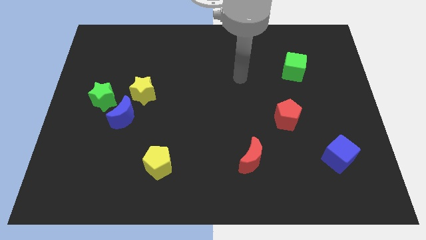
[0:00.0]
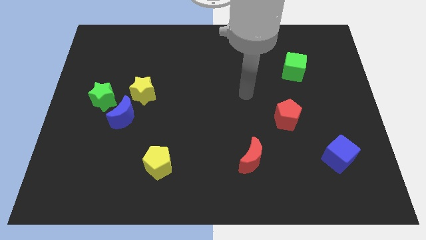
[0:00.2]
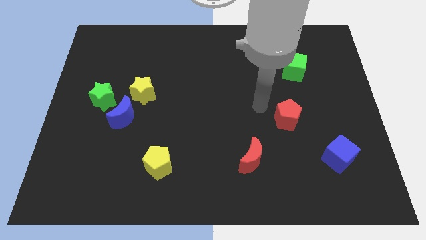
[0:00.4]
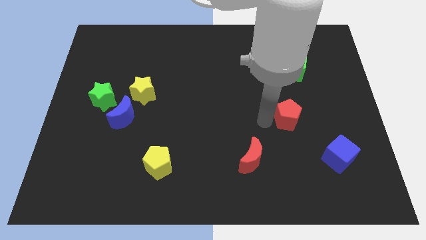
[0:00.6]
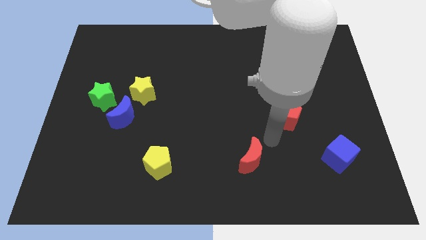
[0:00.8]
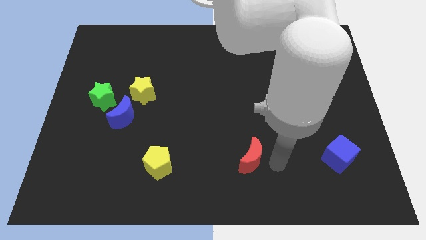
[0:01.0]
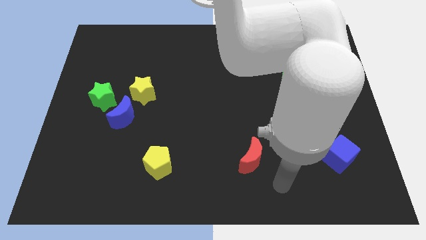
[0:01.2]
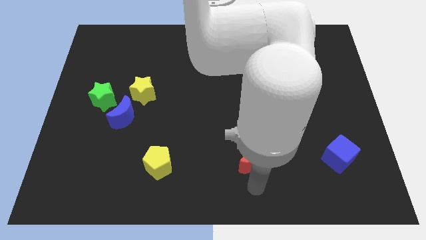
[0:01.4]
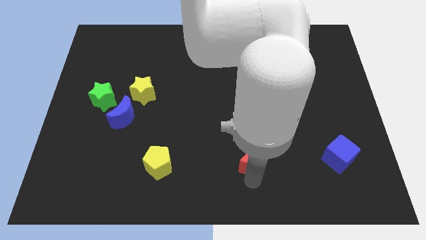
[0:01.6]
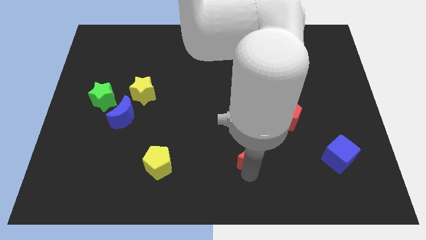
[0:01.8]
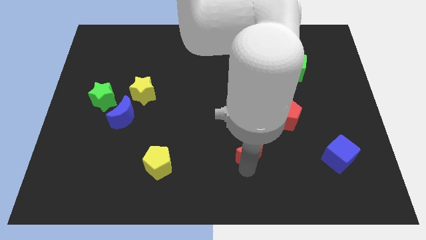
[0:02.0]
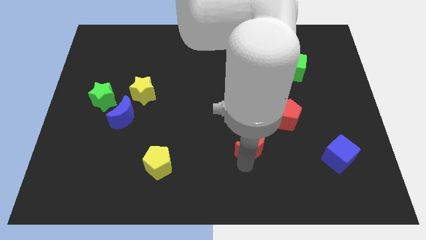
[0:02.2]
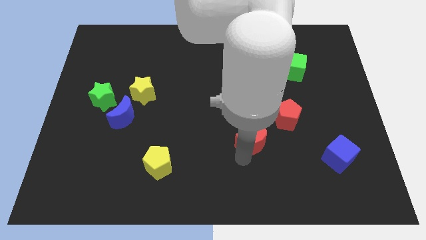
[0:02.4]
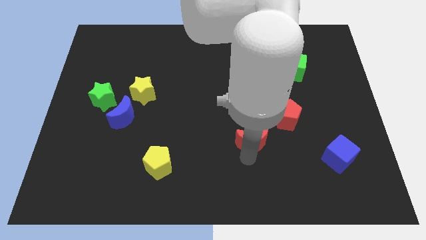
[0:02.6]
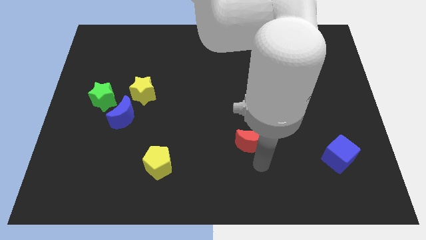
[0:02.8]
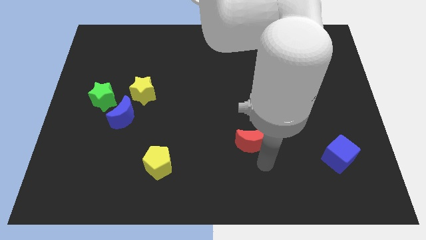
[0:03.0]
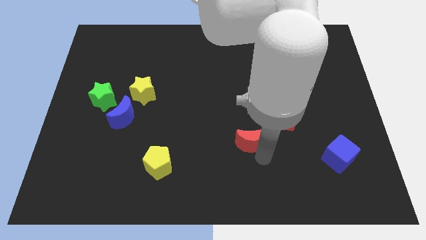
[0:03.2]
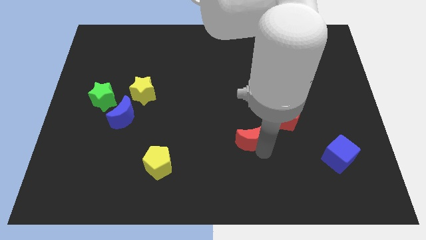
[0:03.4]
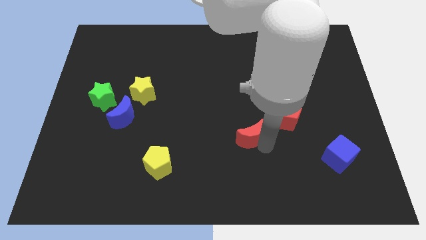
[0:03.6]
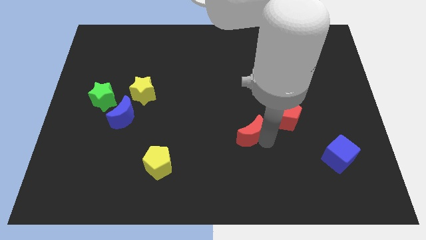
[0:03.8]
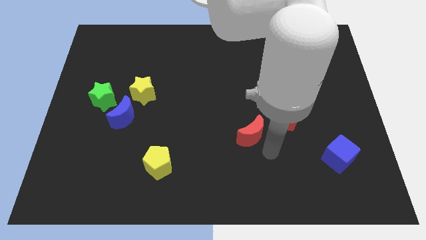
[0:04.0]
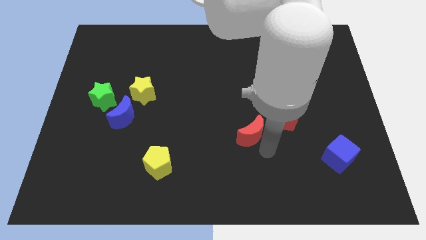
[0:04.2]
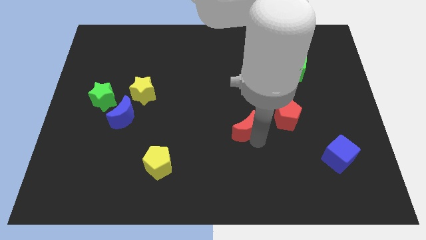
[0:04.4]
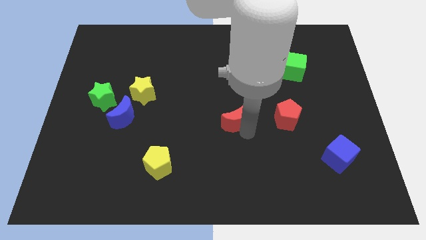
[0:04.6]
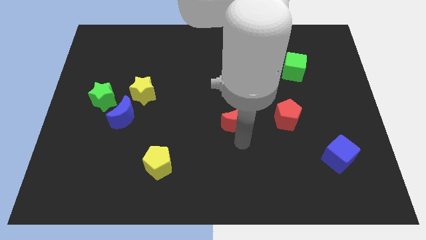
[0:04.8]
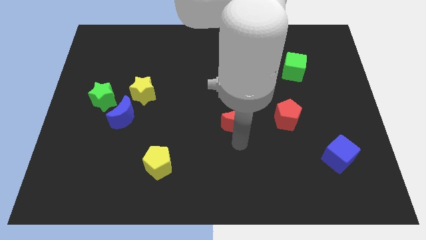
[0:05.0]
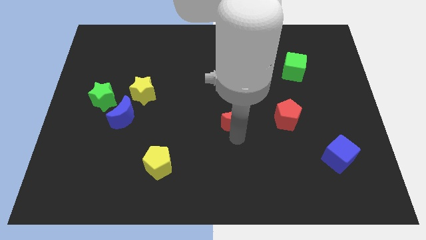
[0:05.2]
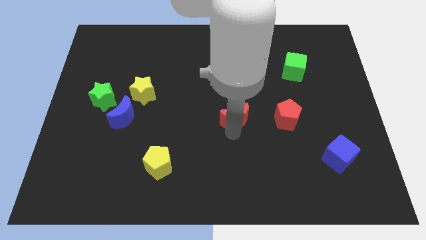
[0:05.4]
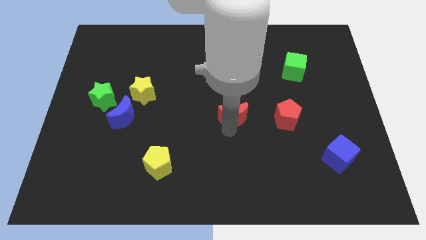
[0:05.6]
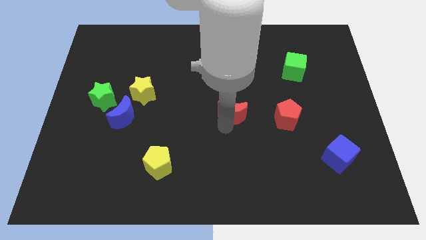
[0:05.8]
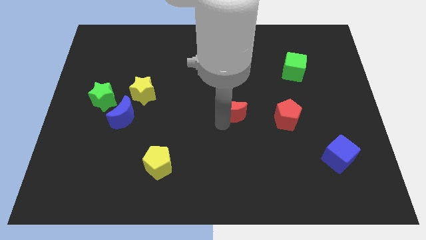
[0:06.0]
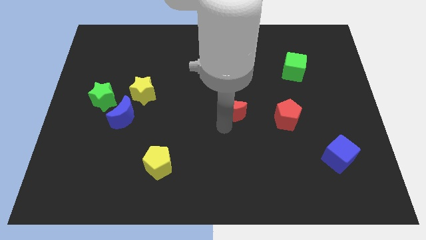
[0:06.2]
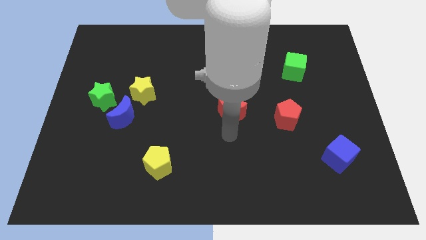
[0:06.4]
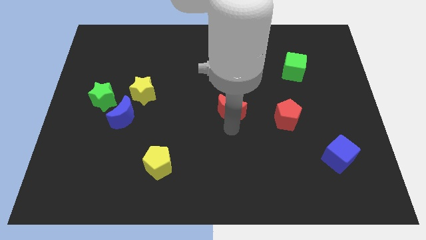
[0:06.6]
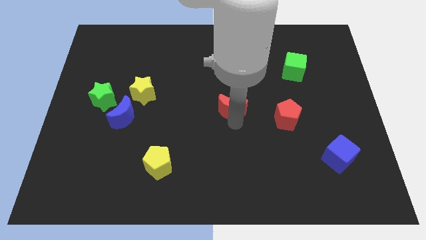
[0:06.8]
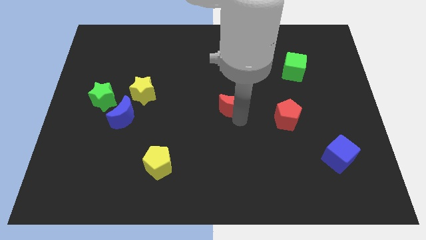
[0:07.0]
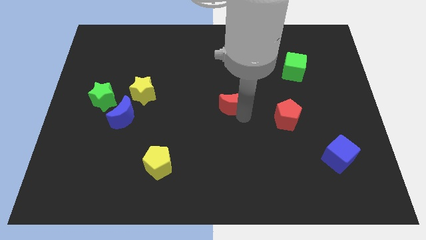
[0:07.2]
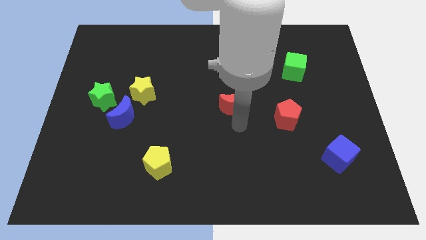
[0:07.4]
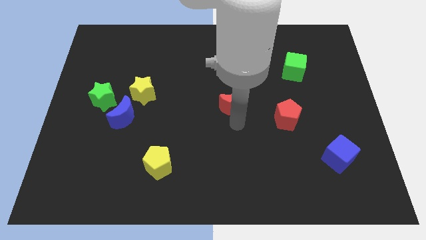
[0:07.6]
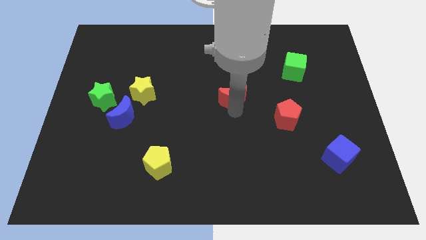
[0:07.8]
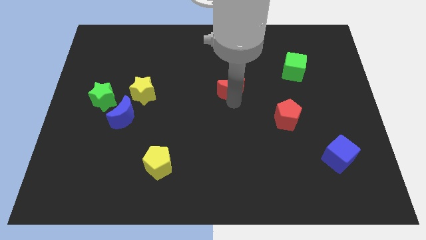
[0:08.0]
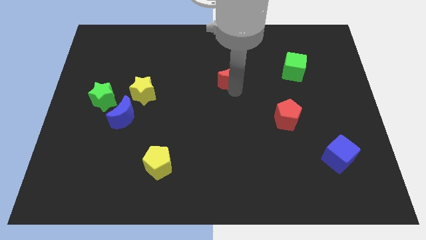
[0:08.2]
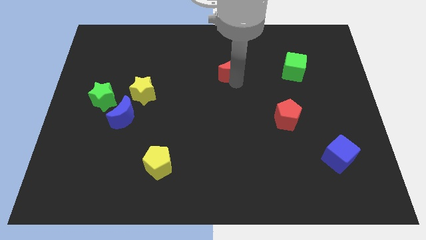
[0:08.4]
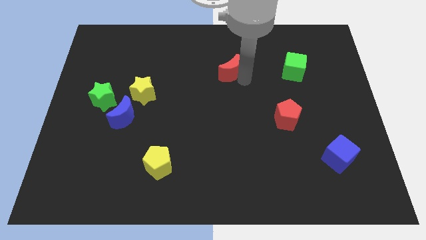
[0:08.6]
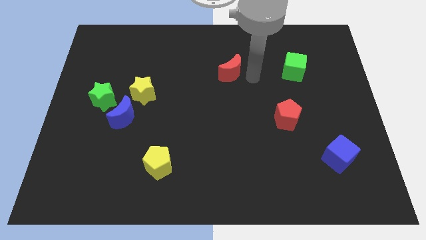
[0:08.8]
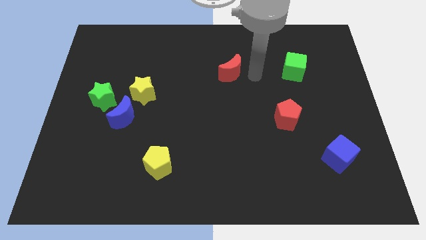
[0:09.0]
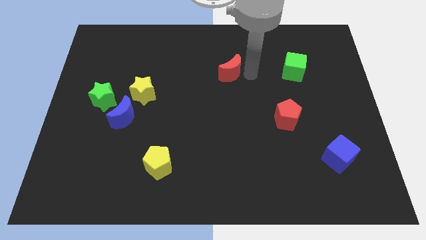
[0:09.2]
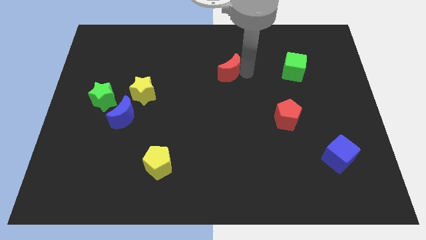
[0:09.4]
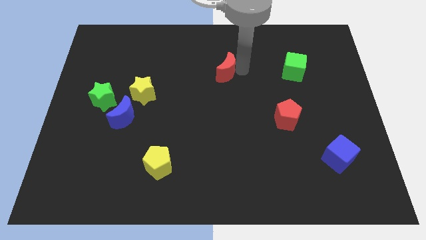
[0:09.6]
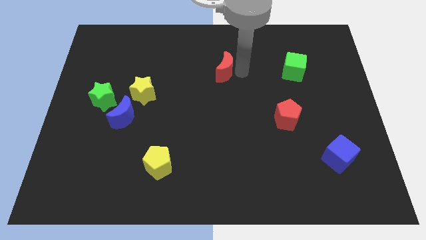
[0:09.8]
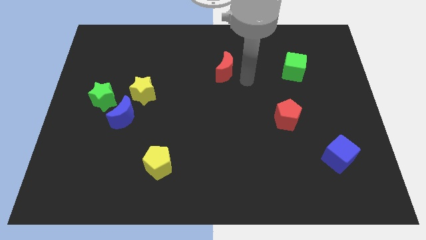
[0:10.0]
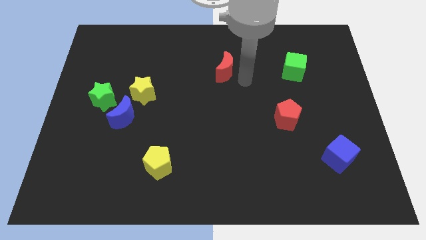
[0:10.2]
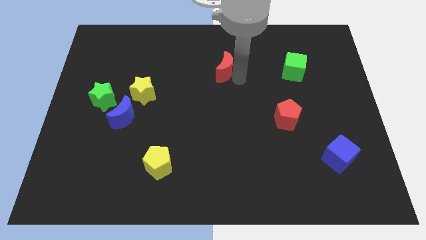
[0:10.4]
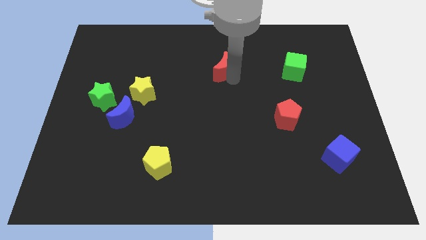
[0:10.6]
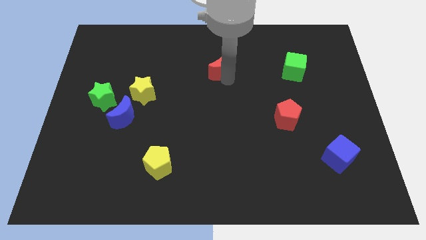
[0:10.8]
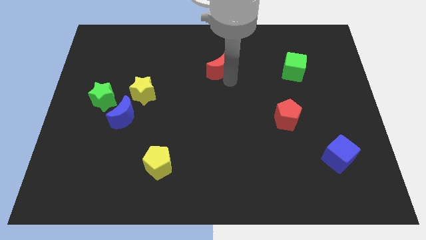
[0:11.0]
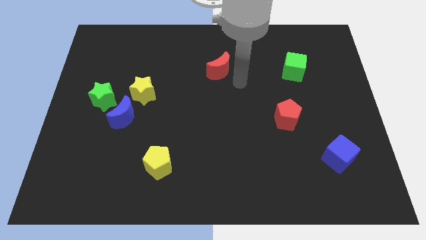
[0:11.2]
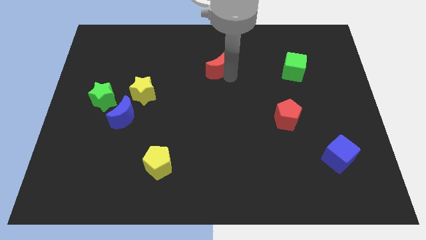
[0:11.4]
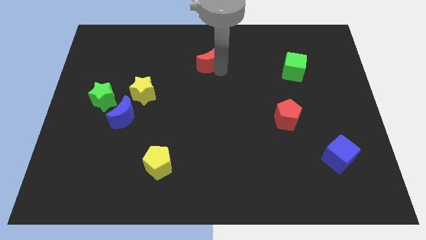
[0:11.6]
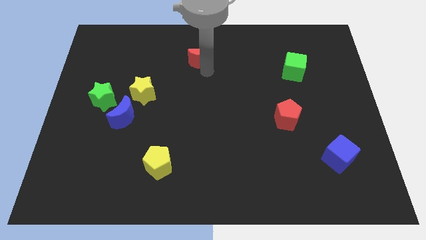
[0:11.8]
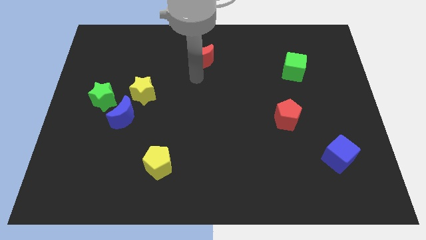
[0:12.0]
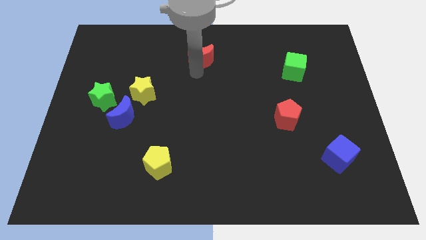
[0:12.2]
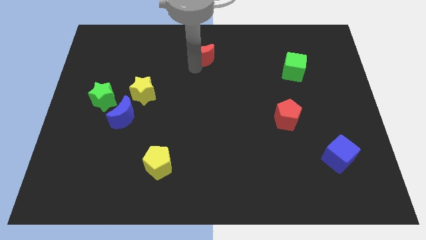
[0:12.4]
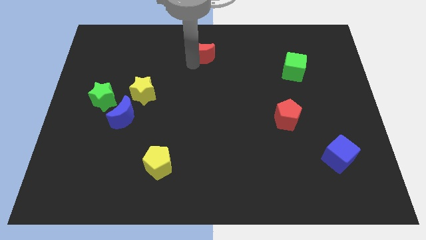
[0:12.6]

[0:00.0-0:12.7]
put the red moon to the towards your base
